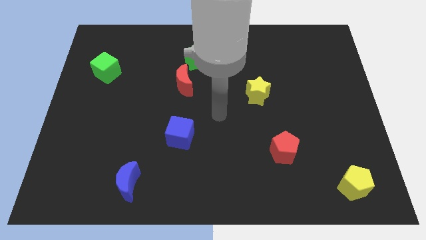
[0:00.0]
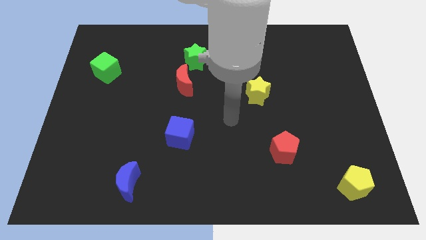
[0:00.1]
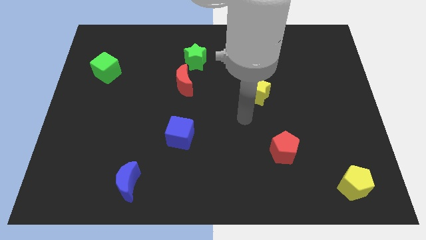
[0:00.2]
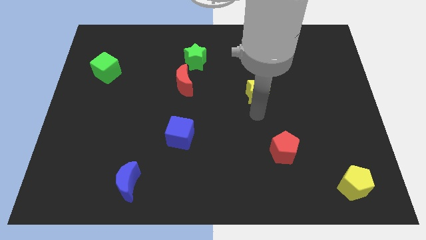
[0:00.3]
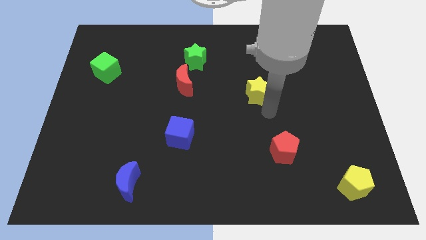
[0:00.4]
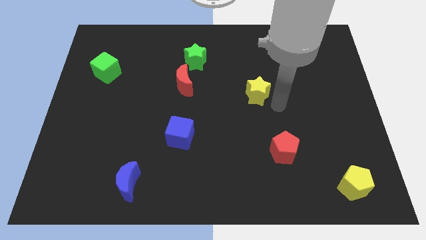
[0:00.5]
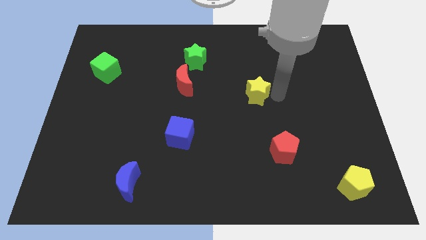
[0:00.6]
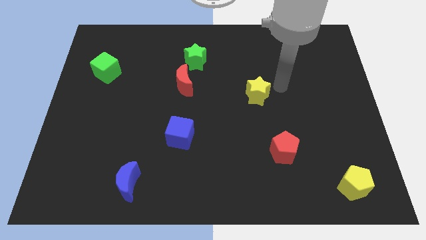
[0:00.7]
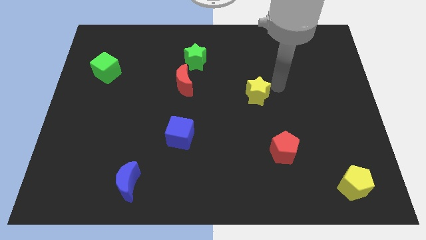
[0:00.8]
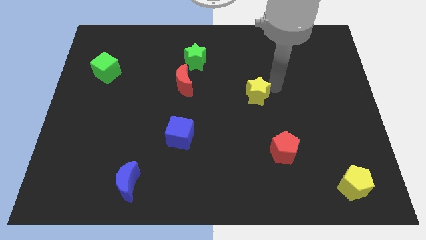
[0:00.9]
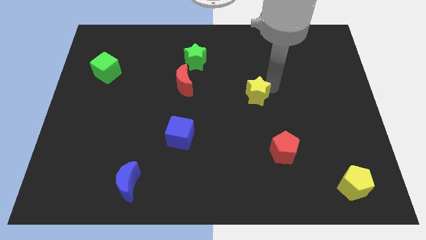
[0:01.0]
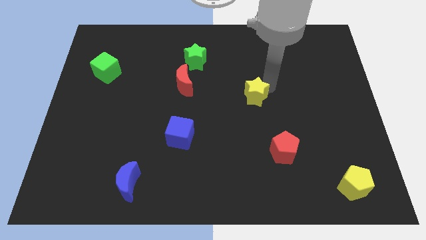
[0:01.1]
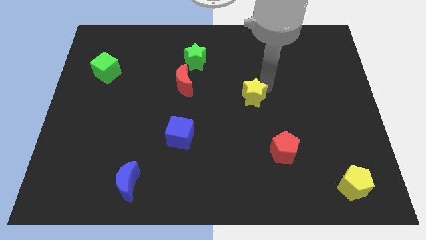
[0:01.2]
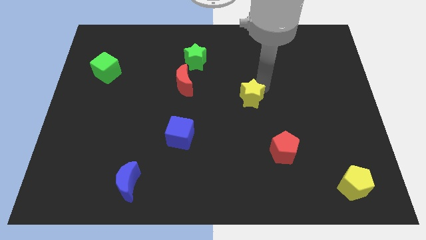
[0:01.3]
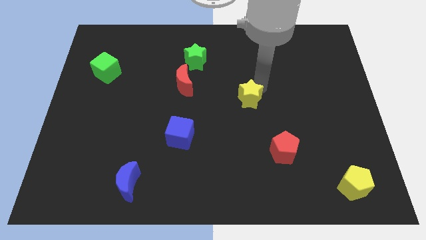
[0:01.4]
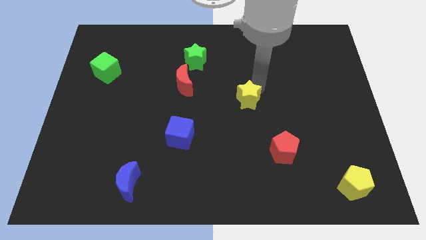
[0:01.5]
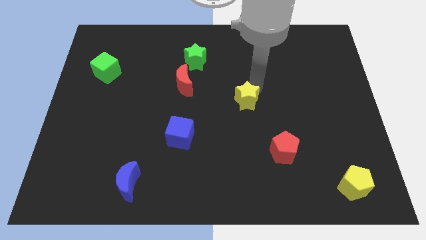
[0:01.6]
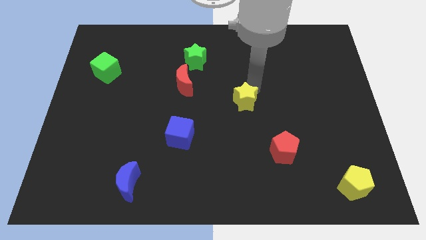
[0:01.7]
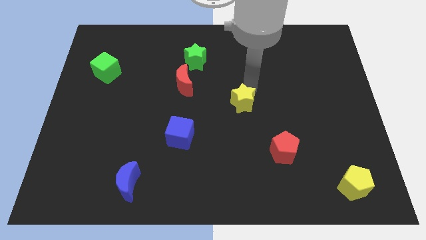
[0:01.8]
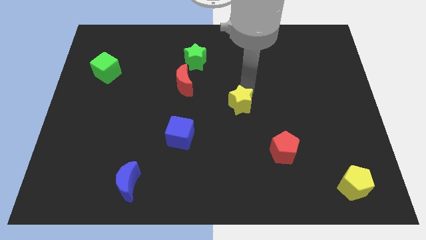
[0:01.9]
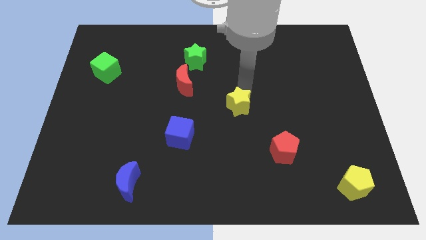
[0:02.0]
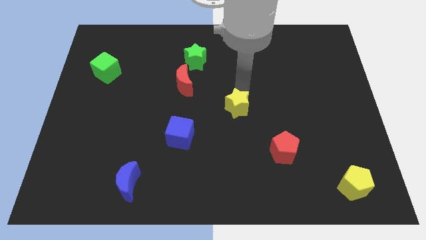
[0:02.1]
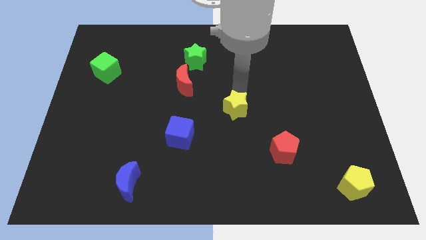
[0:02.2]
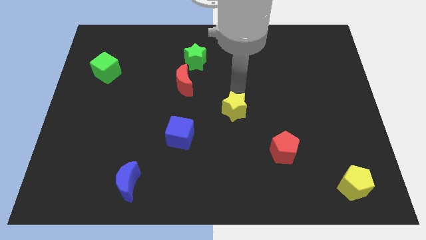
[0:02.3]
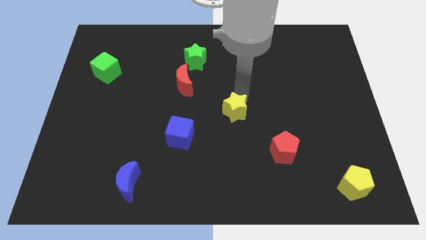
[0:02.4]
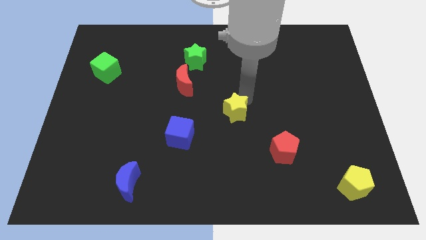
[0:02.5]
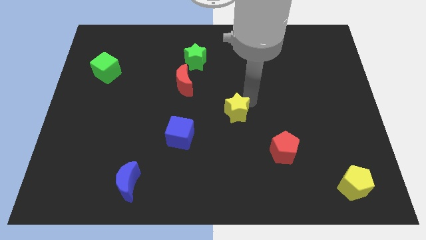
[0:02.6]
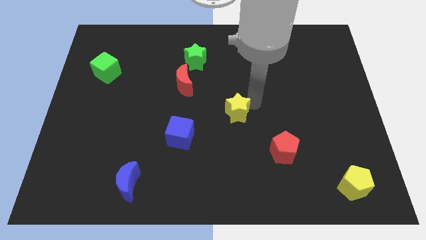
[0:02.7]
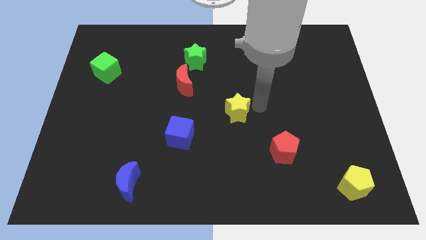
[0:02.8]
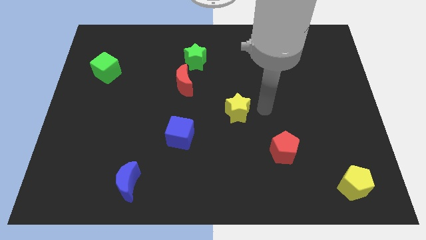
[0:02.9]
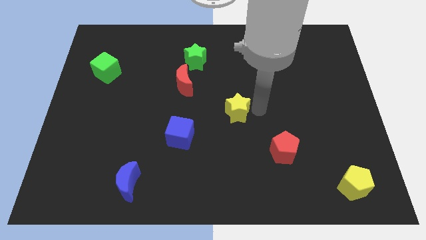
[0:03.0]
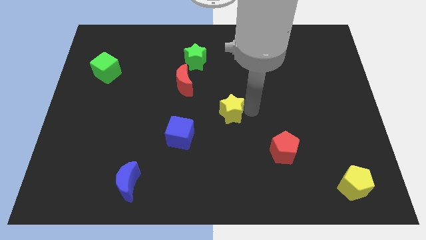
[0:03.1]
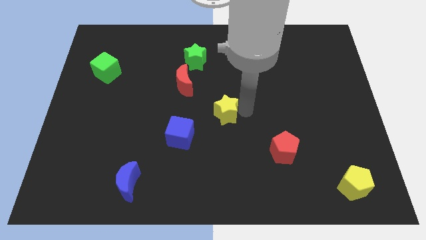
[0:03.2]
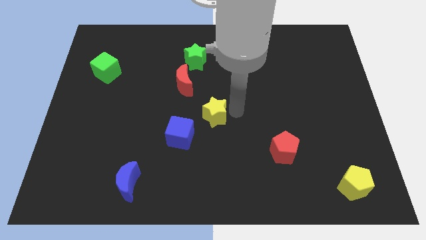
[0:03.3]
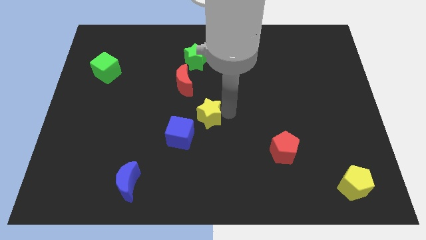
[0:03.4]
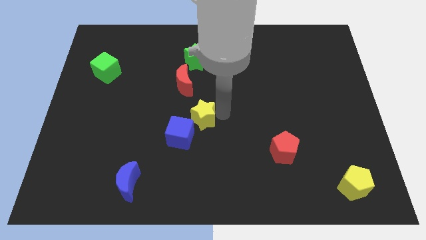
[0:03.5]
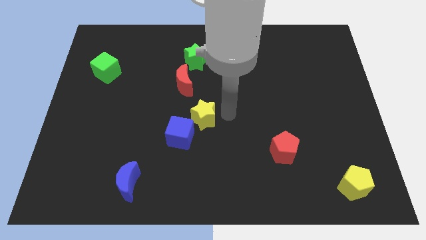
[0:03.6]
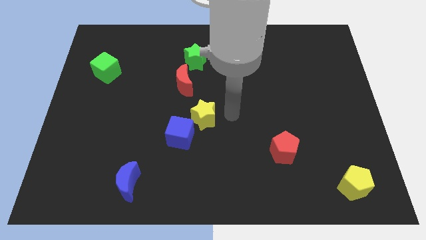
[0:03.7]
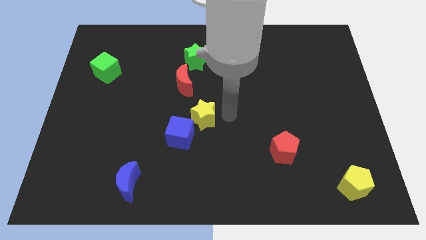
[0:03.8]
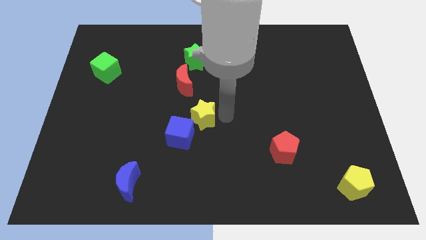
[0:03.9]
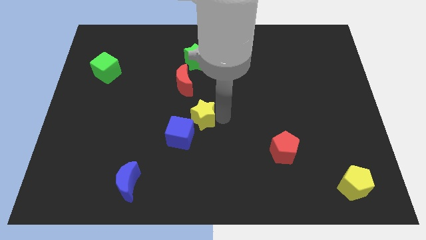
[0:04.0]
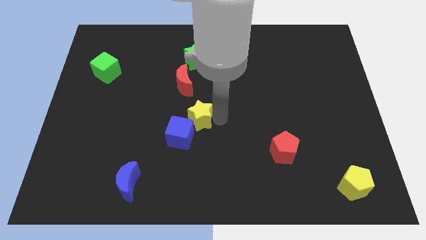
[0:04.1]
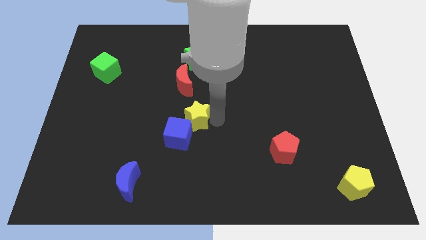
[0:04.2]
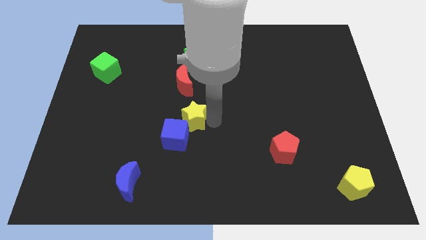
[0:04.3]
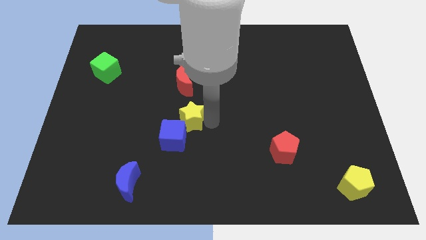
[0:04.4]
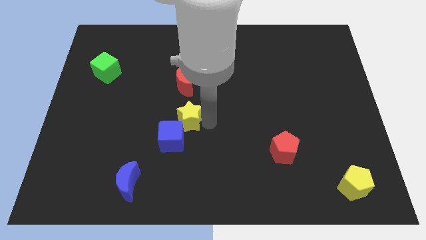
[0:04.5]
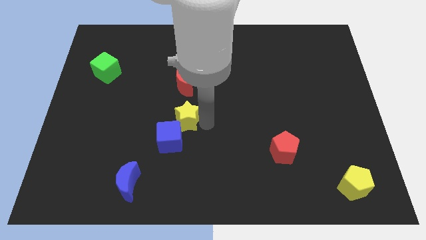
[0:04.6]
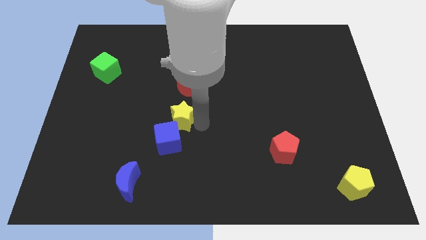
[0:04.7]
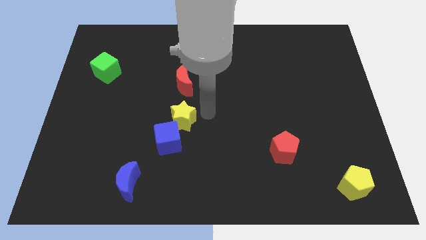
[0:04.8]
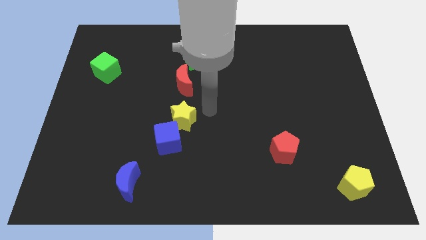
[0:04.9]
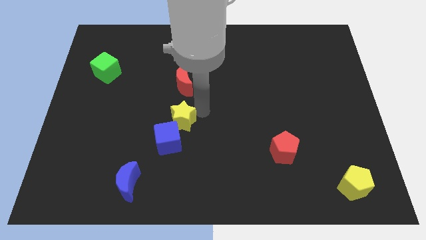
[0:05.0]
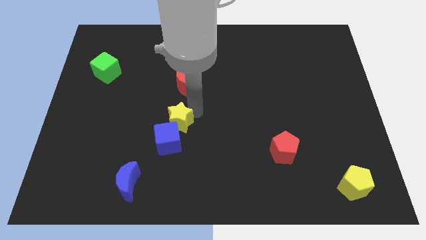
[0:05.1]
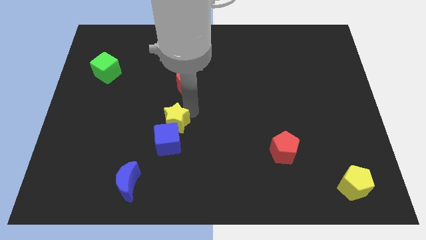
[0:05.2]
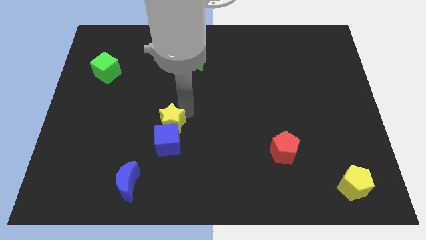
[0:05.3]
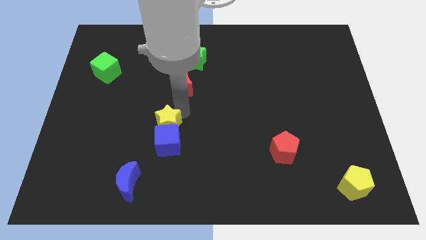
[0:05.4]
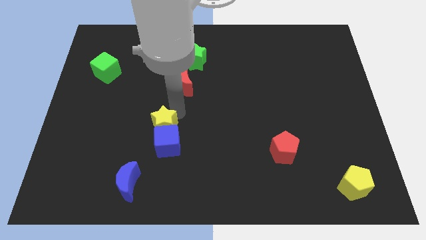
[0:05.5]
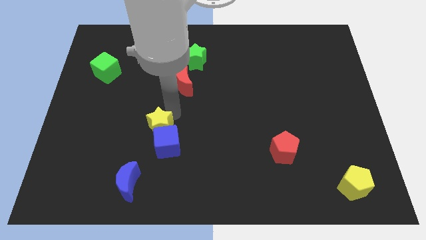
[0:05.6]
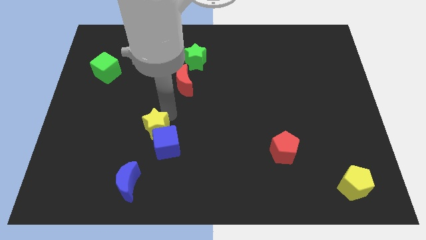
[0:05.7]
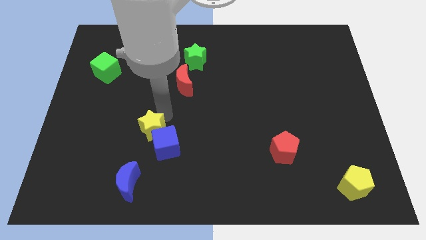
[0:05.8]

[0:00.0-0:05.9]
push the yellow star to the left of the blue cube

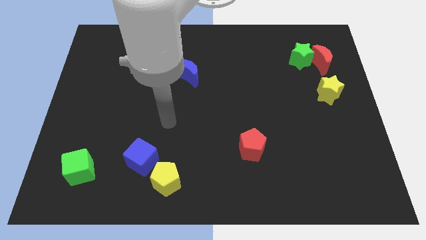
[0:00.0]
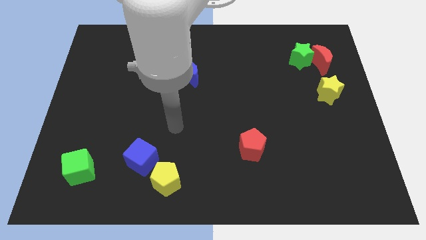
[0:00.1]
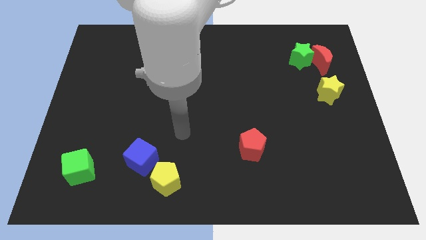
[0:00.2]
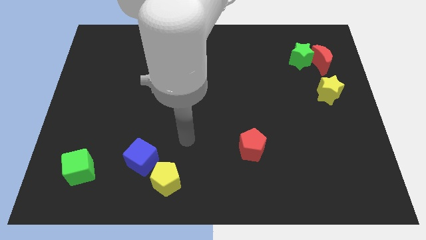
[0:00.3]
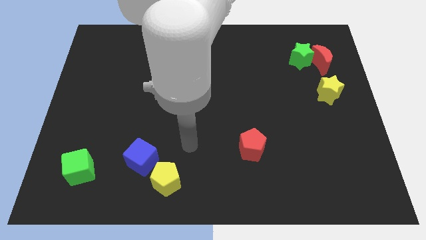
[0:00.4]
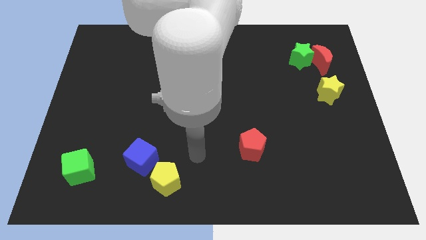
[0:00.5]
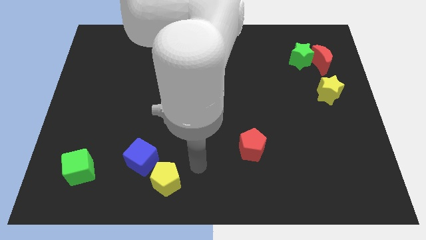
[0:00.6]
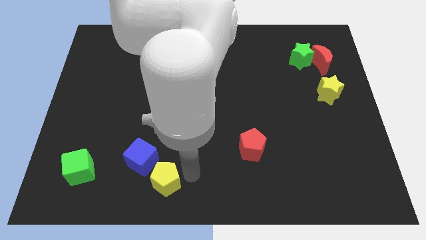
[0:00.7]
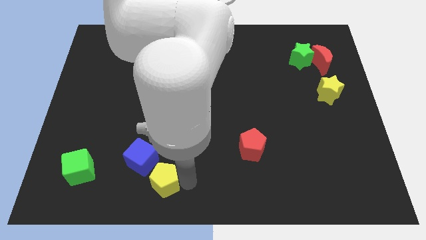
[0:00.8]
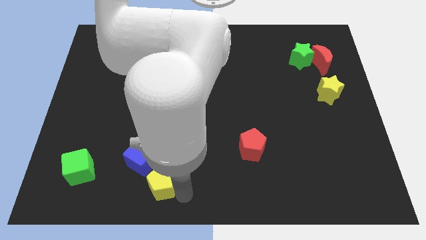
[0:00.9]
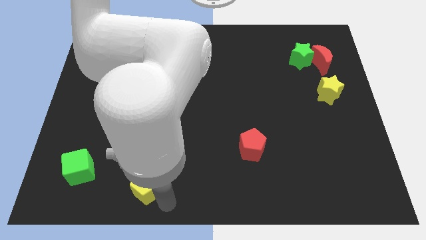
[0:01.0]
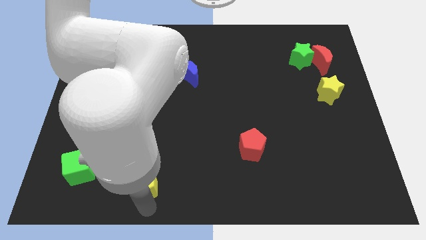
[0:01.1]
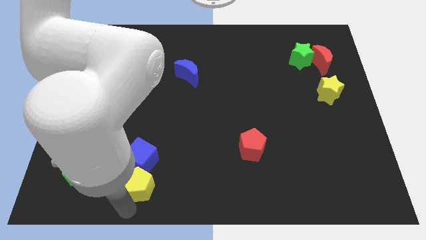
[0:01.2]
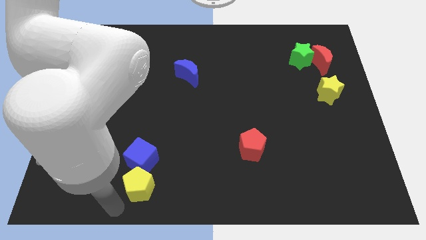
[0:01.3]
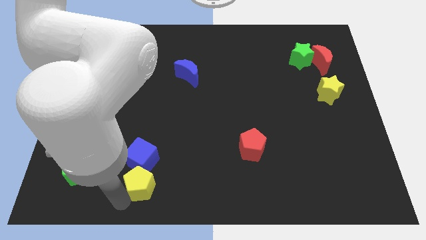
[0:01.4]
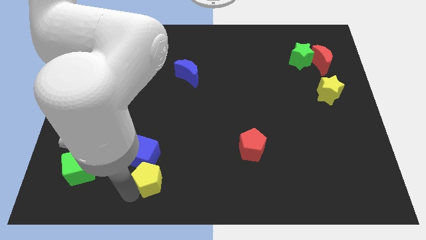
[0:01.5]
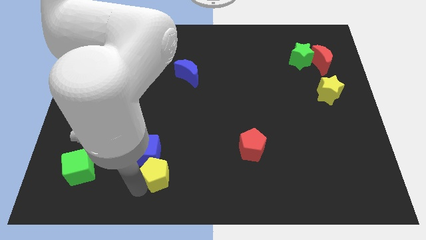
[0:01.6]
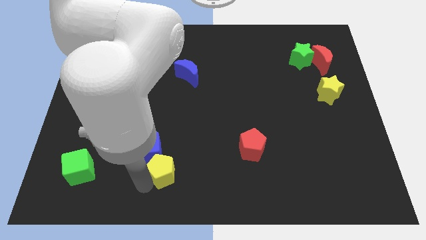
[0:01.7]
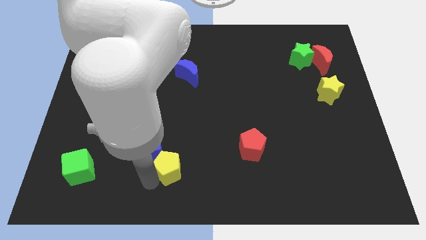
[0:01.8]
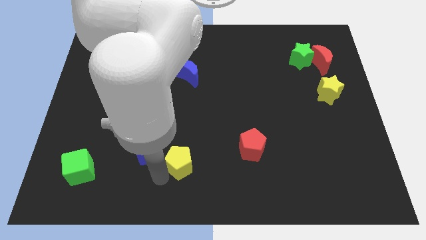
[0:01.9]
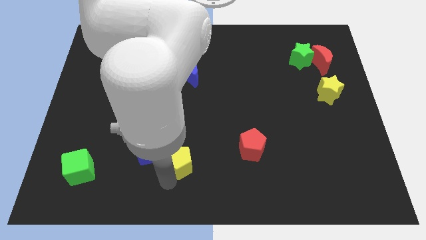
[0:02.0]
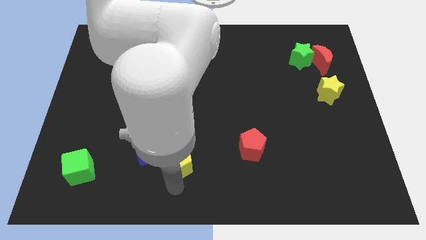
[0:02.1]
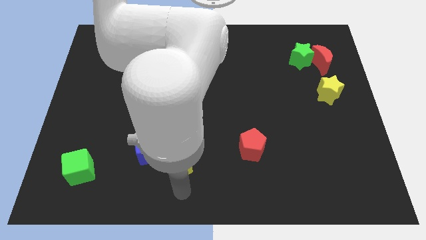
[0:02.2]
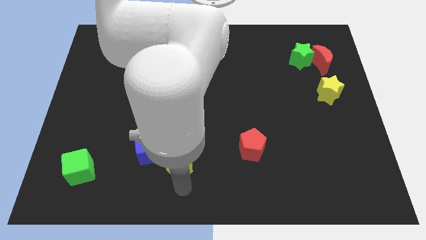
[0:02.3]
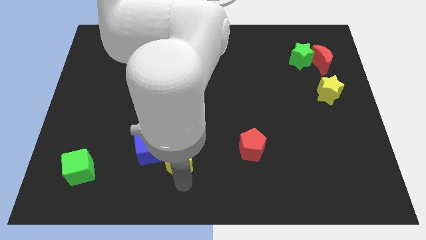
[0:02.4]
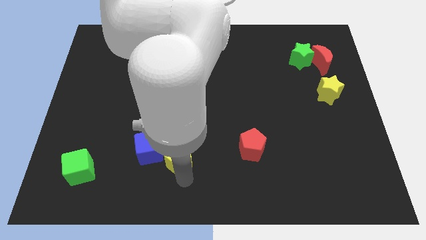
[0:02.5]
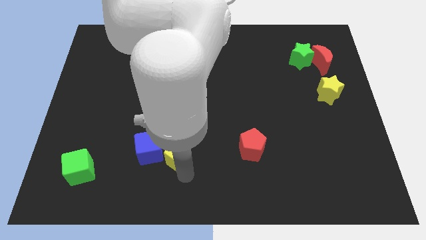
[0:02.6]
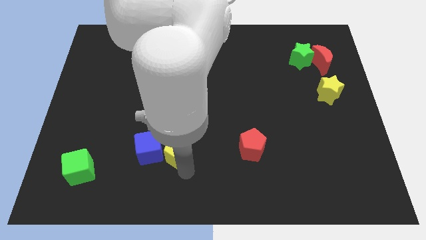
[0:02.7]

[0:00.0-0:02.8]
push the yellow pentagon to the top right side of the blue cube
